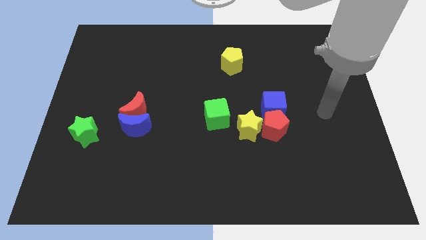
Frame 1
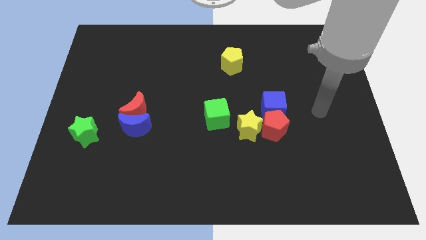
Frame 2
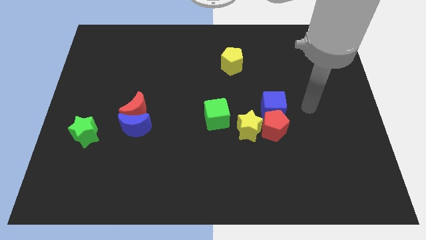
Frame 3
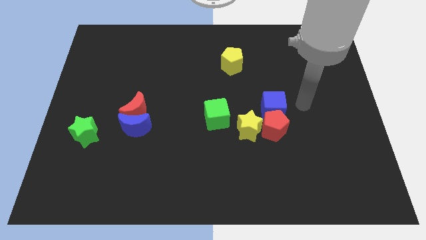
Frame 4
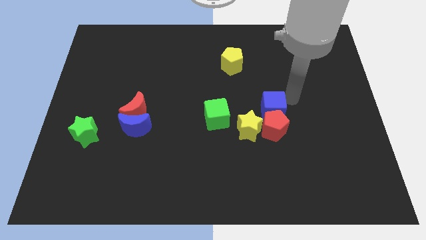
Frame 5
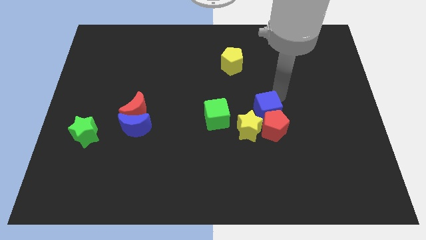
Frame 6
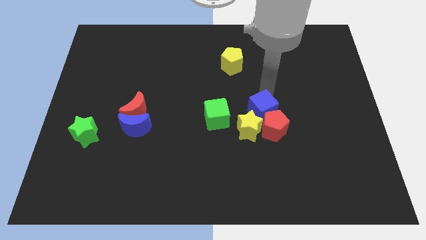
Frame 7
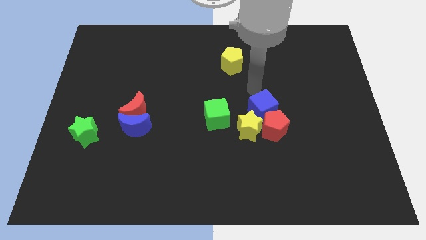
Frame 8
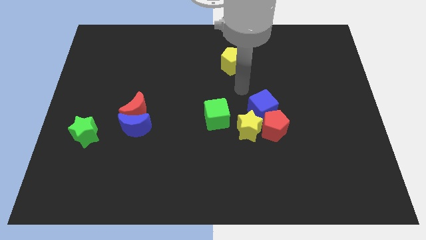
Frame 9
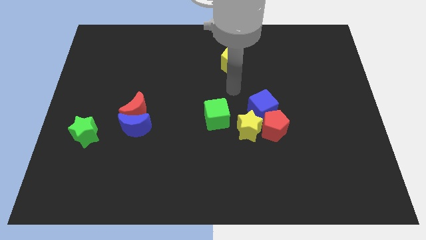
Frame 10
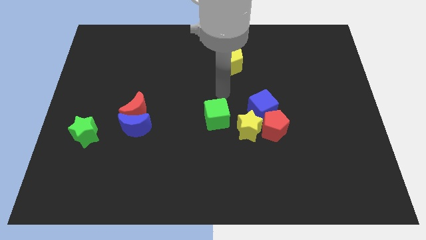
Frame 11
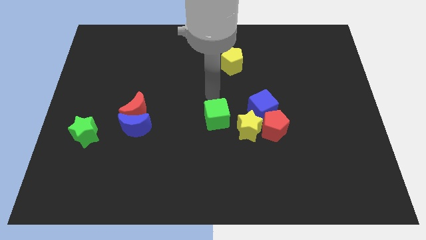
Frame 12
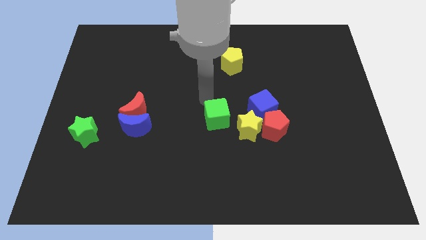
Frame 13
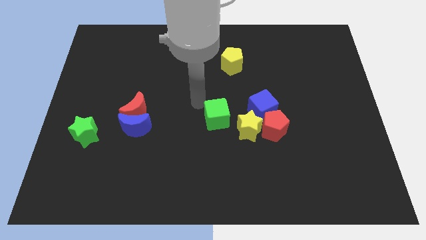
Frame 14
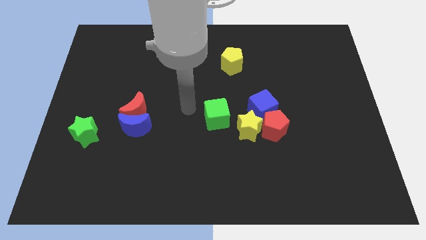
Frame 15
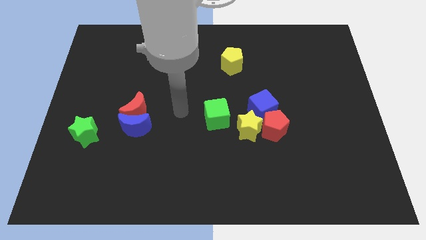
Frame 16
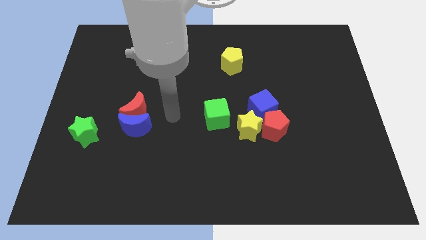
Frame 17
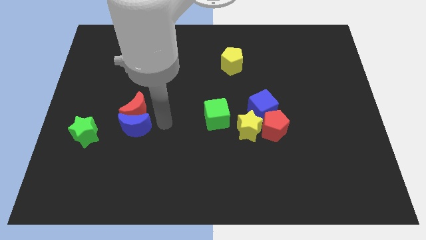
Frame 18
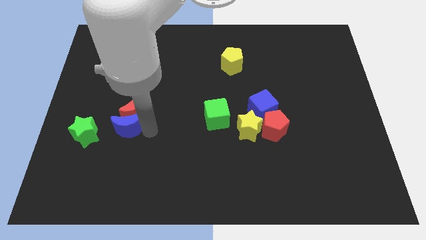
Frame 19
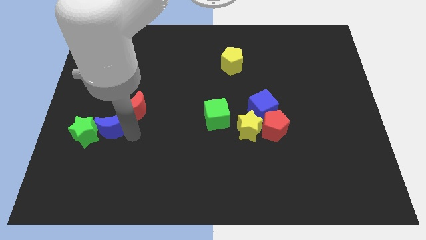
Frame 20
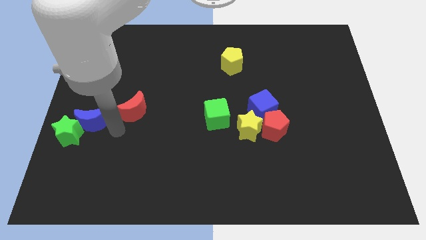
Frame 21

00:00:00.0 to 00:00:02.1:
pull the red moon apart from the blue moon

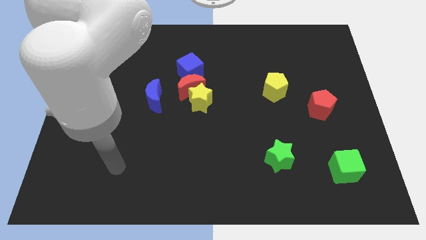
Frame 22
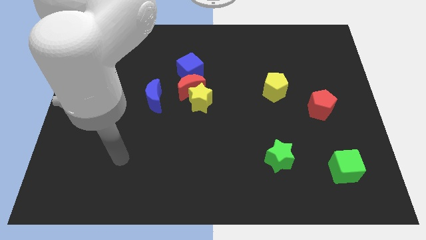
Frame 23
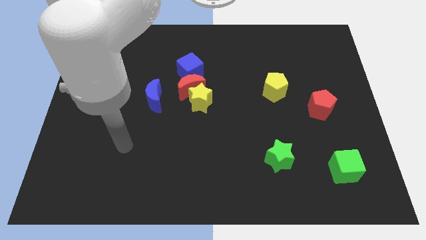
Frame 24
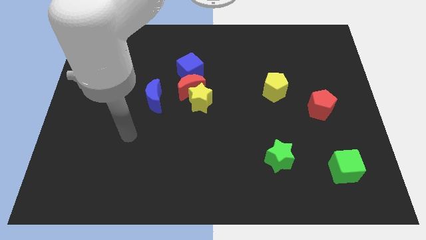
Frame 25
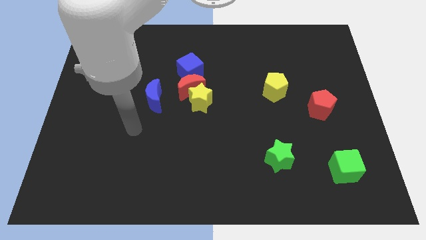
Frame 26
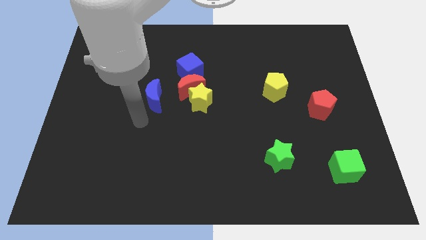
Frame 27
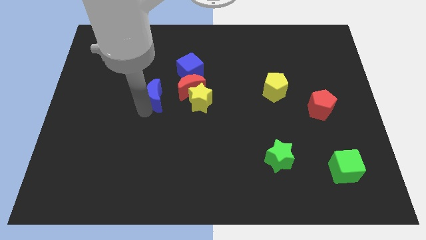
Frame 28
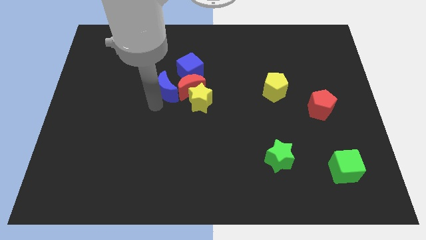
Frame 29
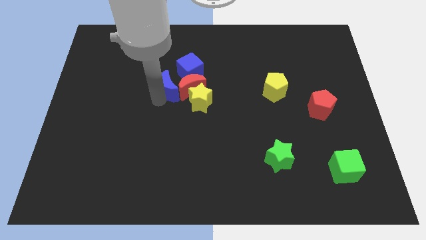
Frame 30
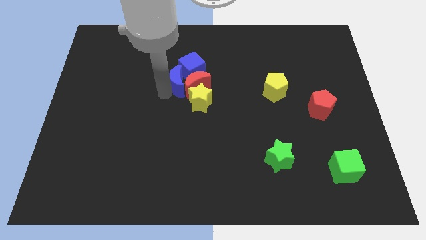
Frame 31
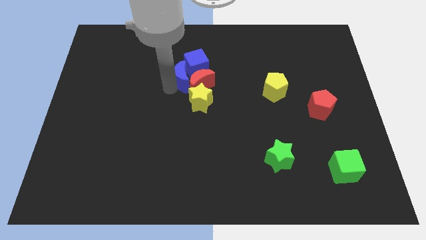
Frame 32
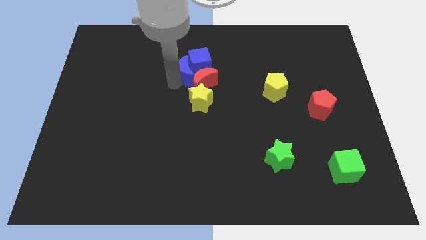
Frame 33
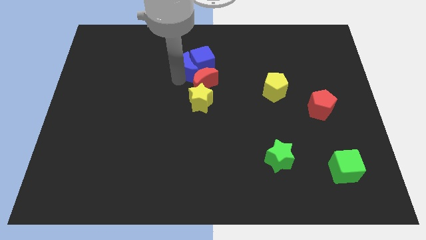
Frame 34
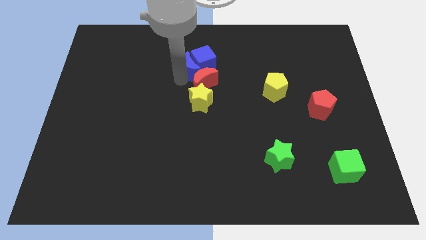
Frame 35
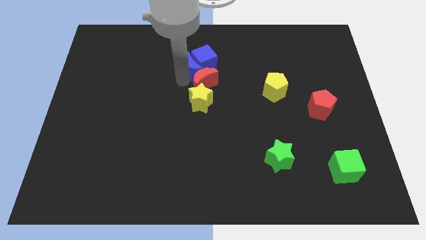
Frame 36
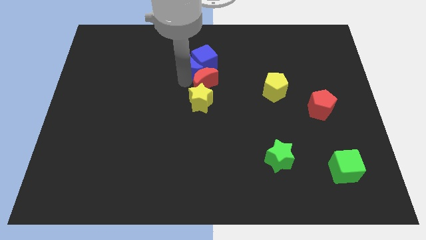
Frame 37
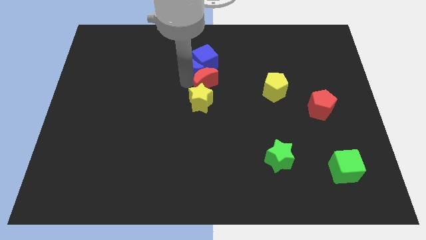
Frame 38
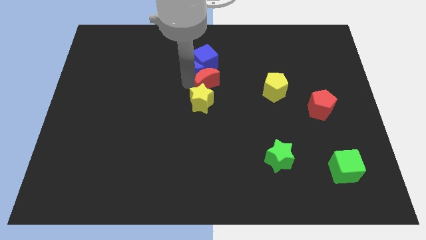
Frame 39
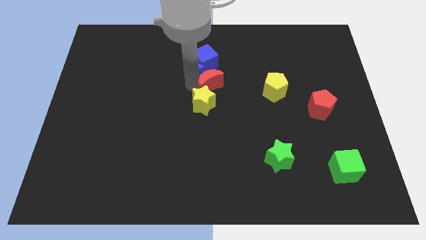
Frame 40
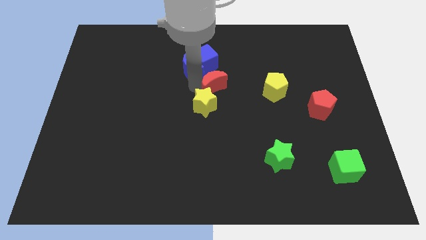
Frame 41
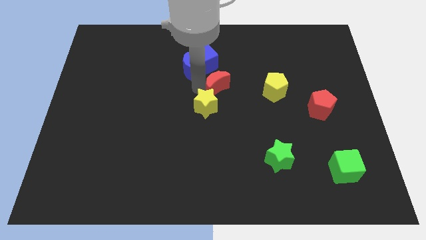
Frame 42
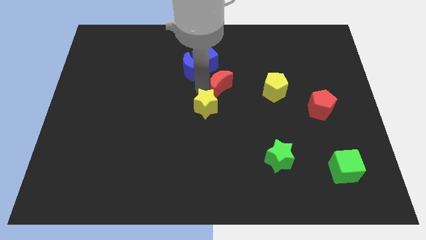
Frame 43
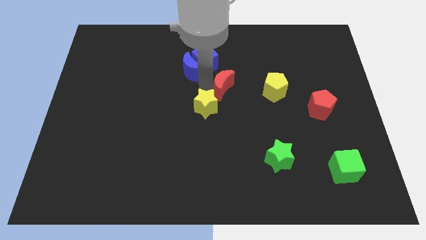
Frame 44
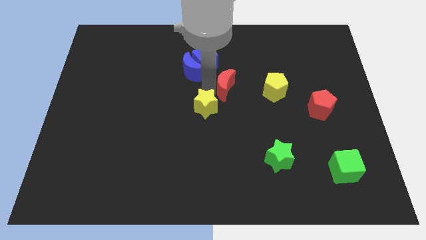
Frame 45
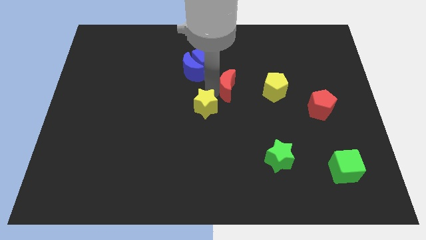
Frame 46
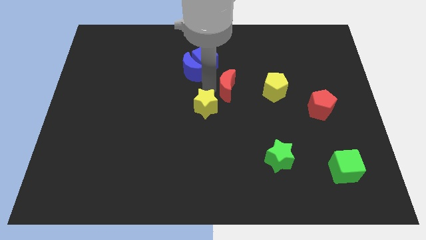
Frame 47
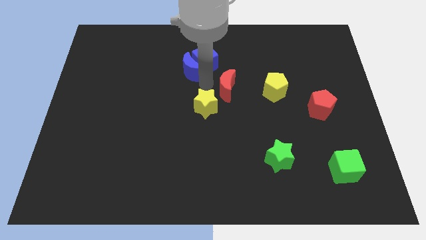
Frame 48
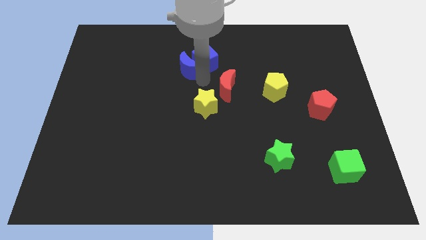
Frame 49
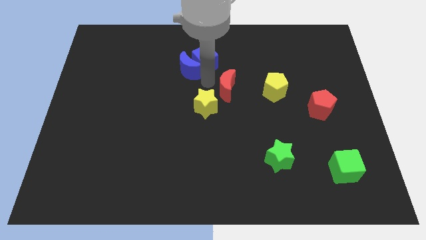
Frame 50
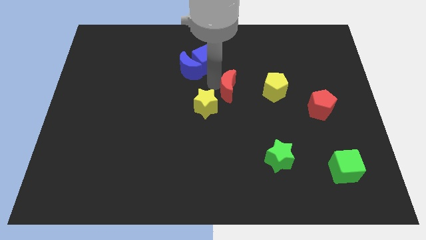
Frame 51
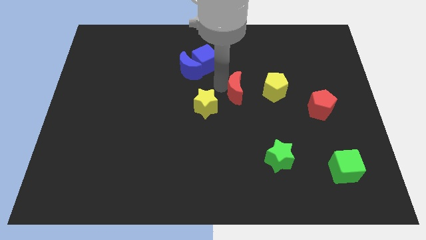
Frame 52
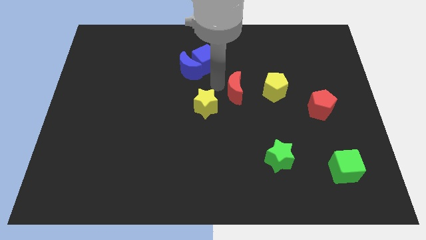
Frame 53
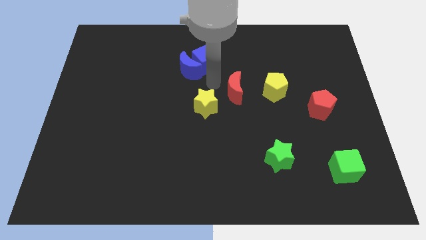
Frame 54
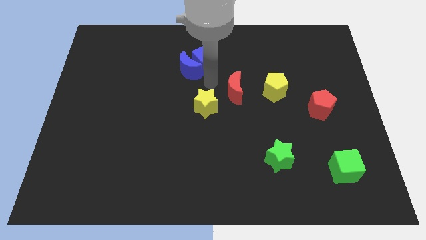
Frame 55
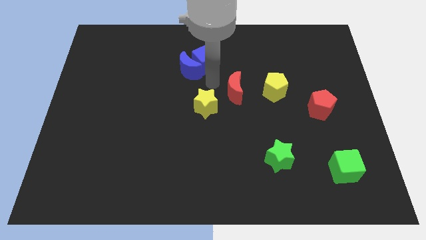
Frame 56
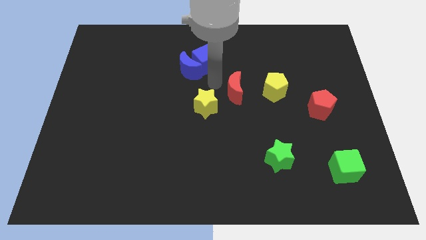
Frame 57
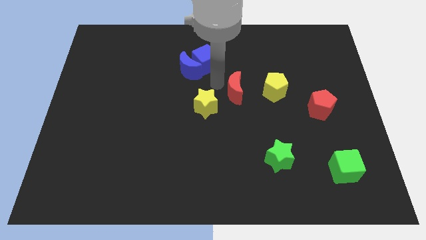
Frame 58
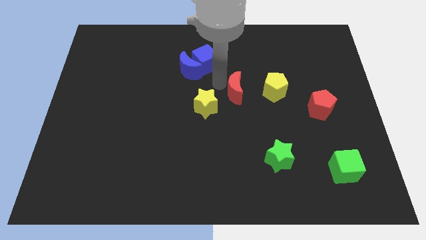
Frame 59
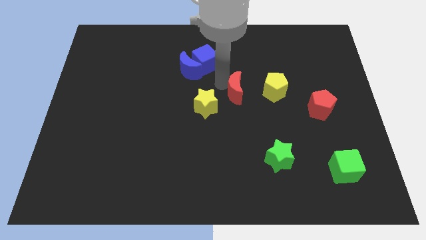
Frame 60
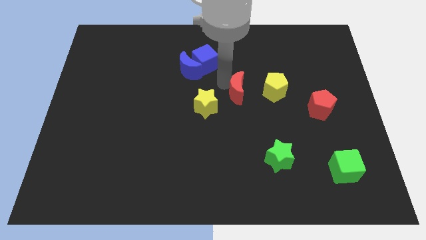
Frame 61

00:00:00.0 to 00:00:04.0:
separate the red moon from the yellow star, blue cube, and blue moon

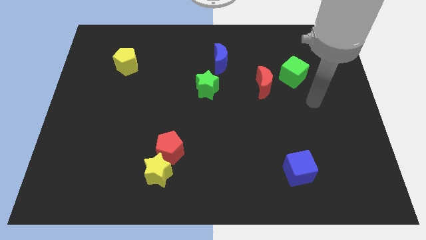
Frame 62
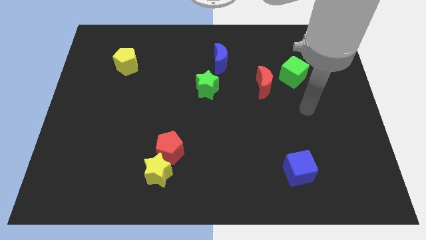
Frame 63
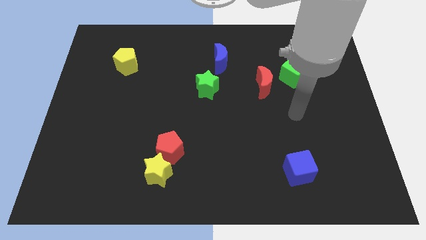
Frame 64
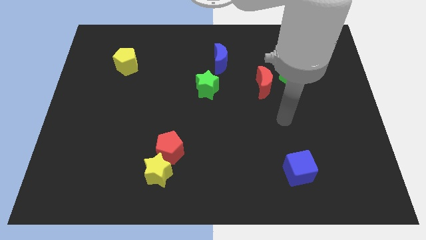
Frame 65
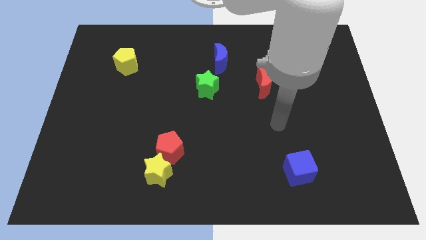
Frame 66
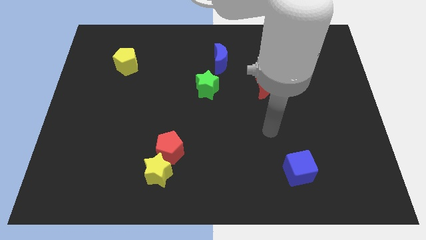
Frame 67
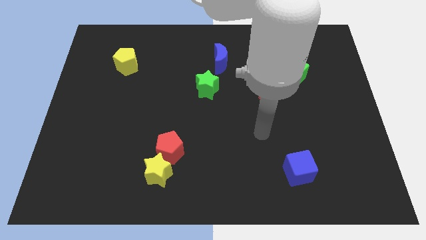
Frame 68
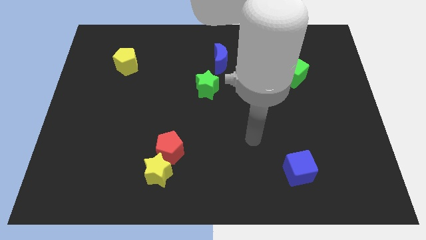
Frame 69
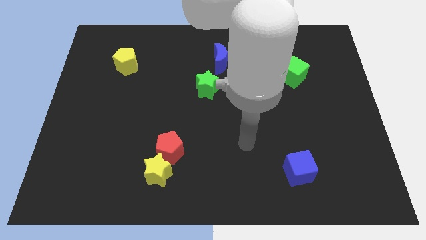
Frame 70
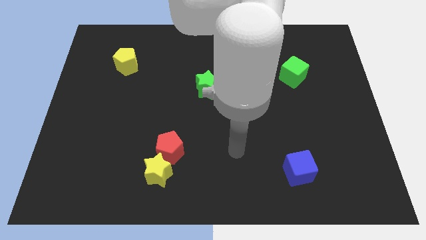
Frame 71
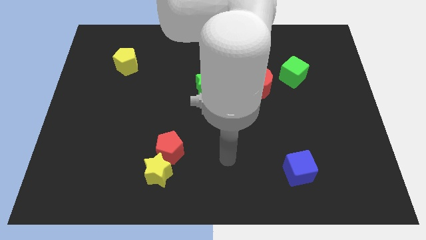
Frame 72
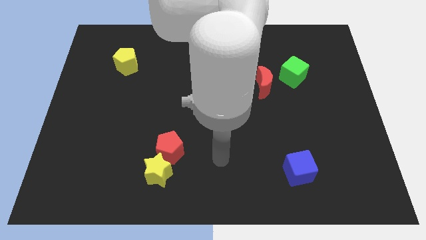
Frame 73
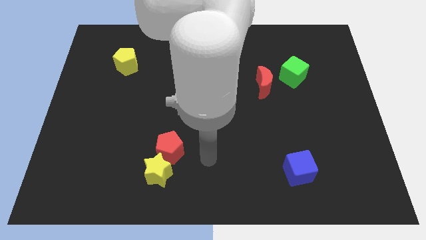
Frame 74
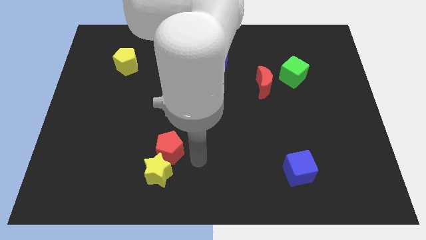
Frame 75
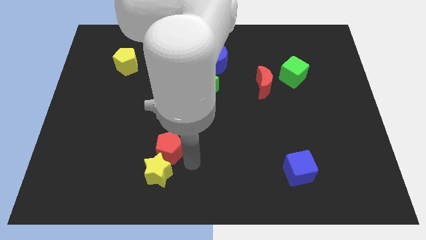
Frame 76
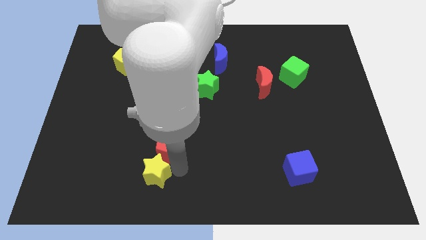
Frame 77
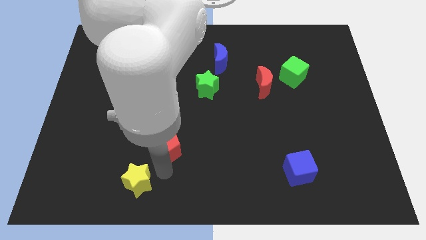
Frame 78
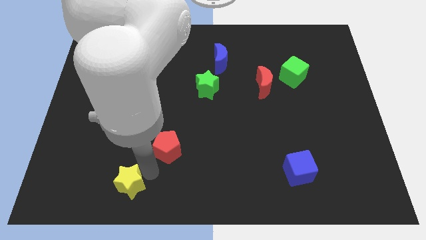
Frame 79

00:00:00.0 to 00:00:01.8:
pull the red pentagon apart from the yellow star

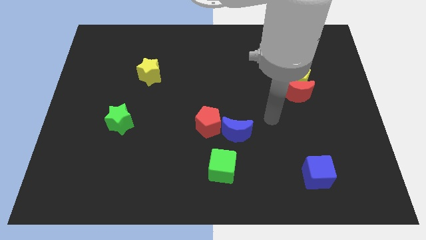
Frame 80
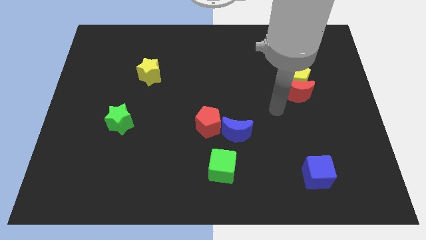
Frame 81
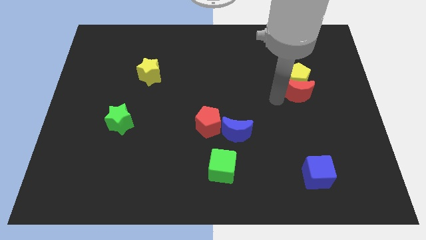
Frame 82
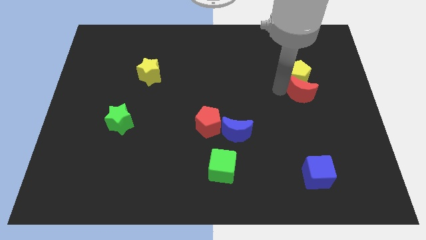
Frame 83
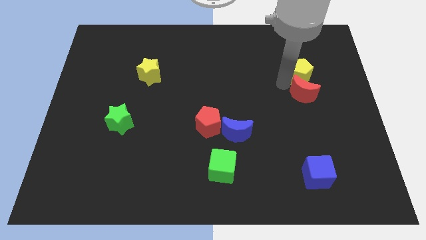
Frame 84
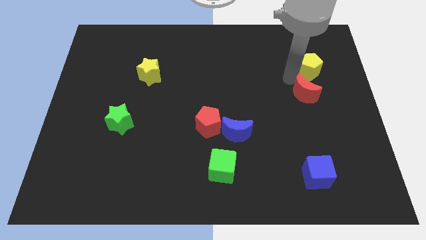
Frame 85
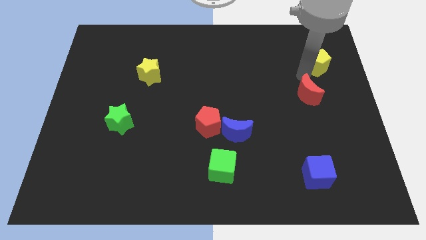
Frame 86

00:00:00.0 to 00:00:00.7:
pull the red moon apart from the yellow pentagon

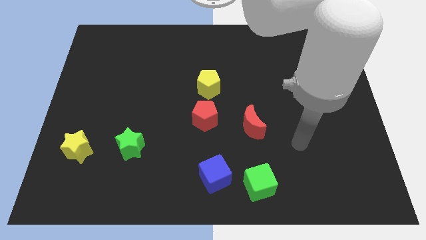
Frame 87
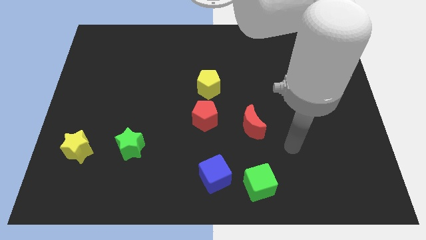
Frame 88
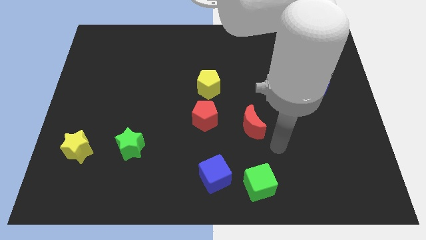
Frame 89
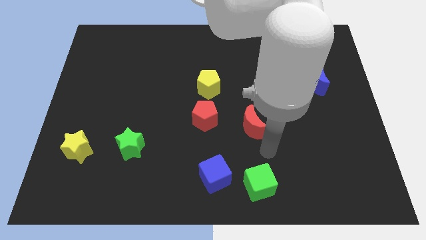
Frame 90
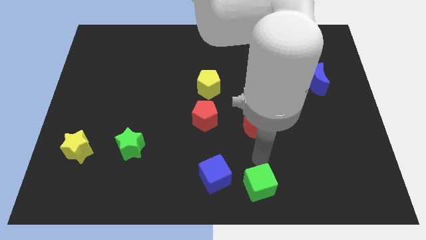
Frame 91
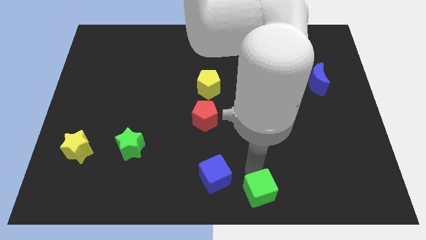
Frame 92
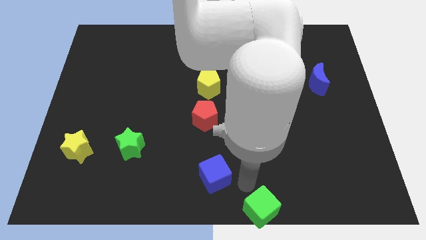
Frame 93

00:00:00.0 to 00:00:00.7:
move the blue cube away from the green cube

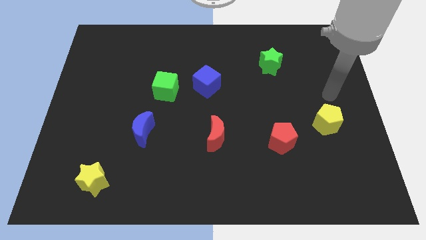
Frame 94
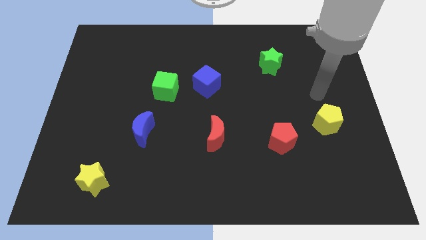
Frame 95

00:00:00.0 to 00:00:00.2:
pull the blue cube apart from the green cube
